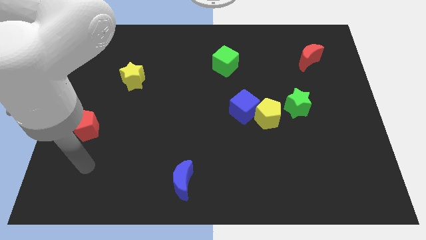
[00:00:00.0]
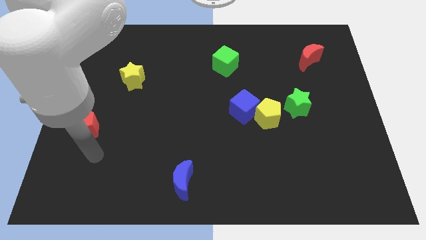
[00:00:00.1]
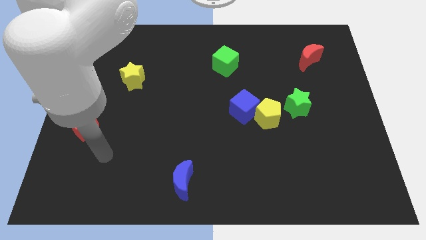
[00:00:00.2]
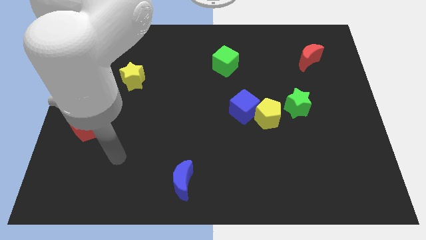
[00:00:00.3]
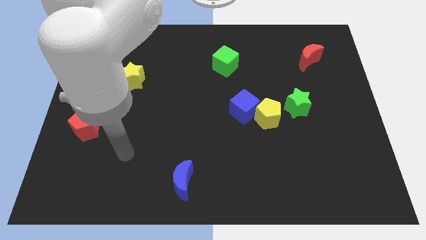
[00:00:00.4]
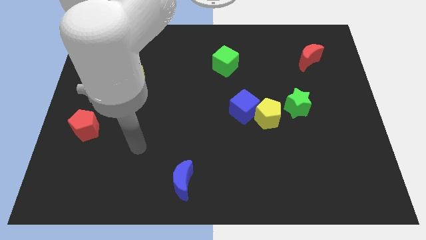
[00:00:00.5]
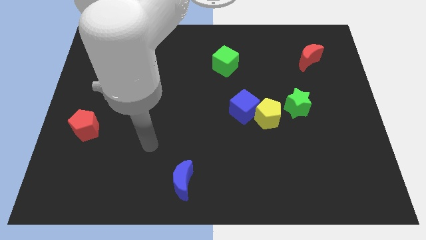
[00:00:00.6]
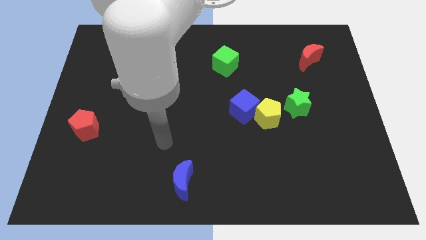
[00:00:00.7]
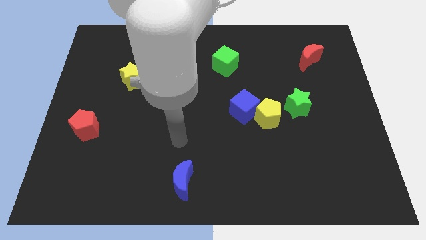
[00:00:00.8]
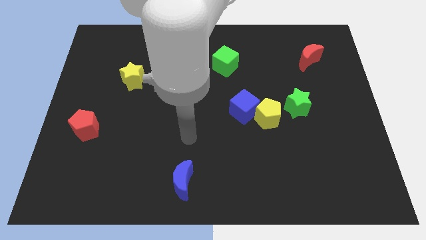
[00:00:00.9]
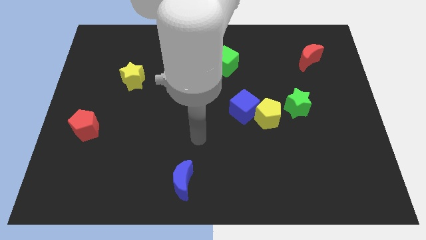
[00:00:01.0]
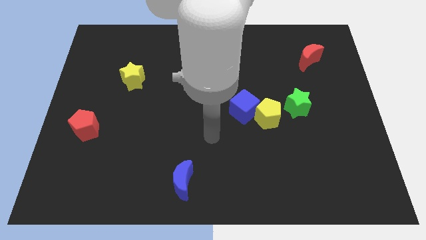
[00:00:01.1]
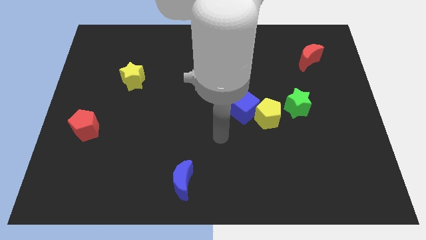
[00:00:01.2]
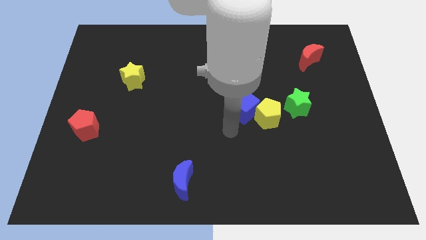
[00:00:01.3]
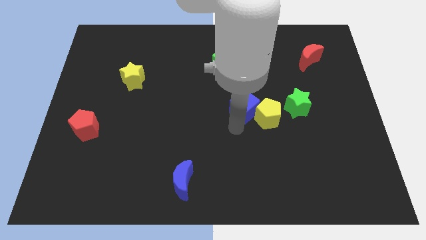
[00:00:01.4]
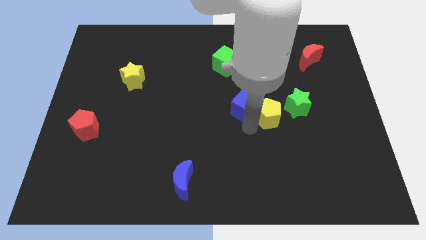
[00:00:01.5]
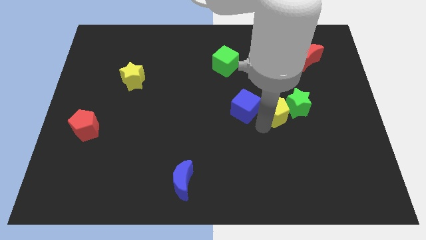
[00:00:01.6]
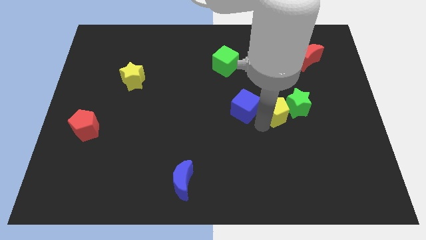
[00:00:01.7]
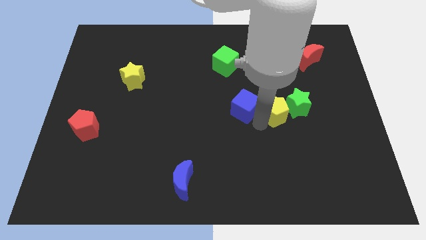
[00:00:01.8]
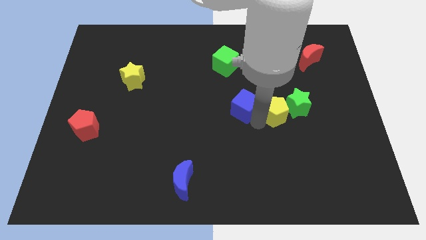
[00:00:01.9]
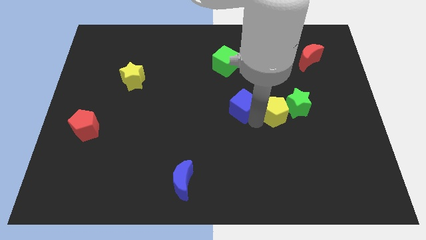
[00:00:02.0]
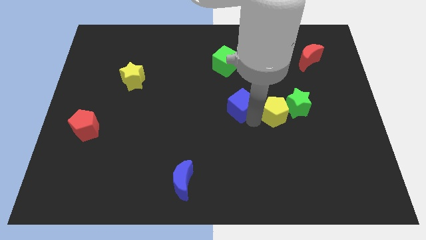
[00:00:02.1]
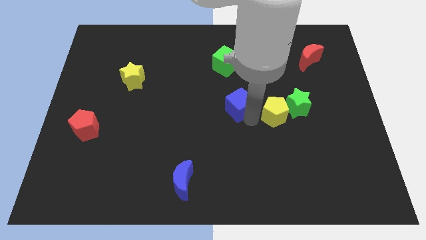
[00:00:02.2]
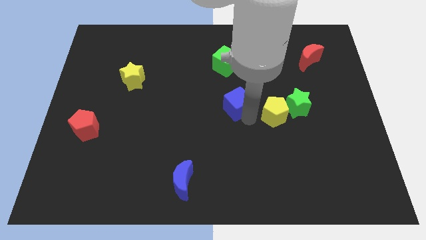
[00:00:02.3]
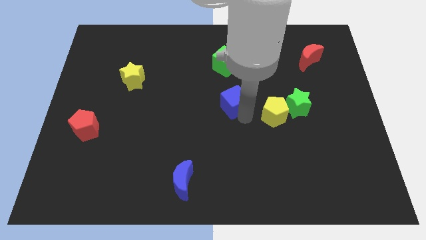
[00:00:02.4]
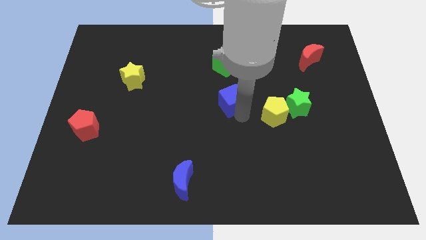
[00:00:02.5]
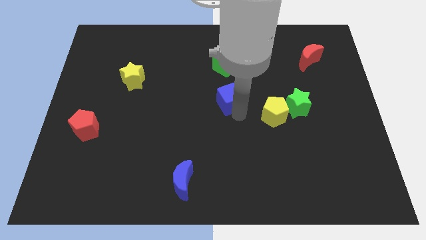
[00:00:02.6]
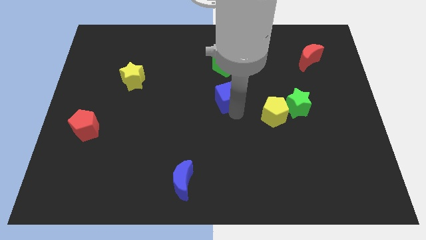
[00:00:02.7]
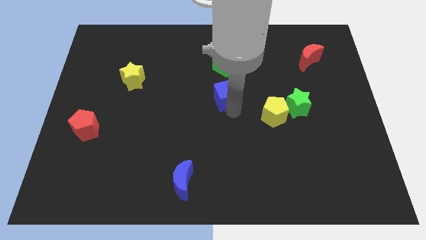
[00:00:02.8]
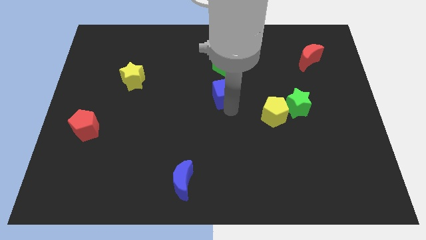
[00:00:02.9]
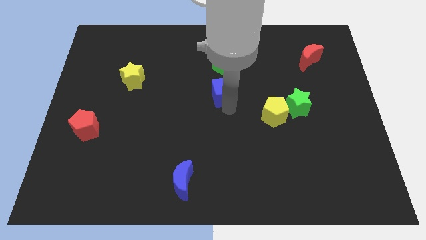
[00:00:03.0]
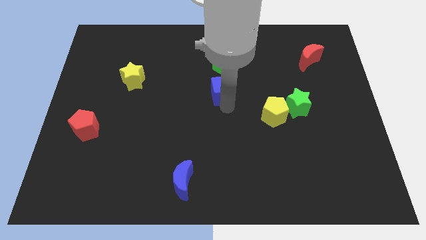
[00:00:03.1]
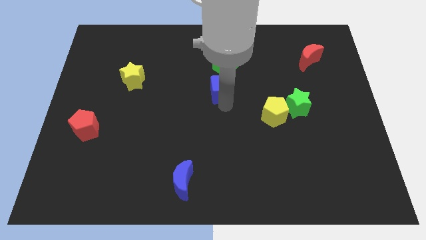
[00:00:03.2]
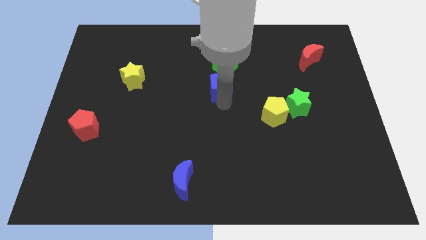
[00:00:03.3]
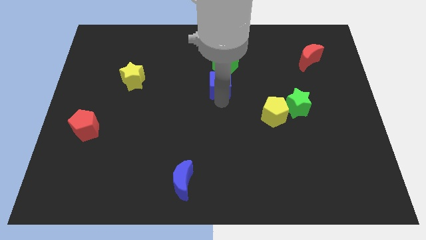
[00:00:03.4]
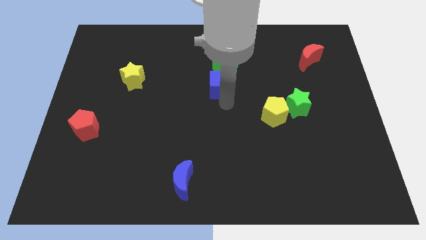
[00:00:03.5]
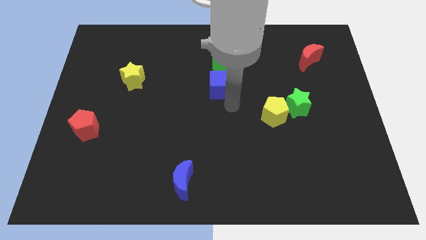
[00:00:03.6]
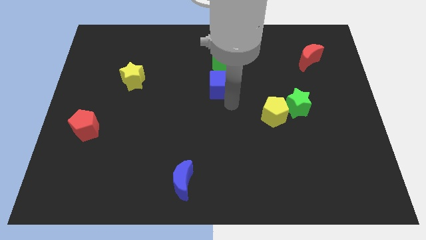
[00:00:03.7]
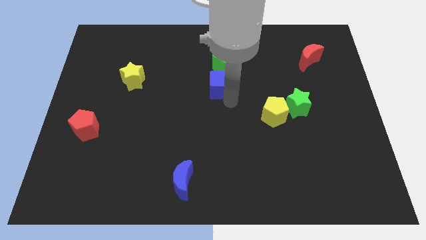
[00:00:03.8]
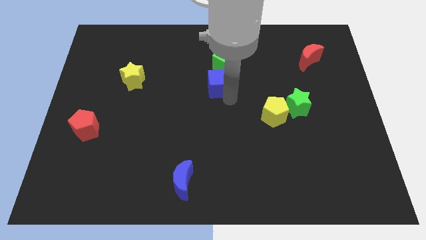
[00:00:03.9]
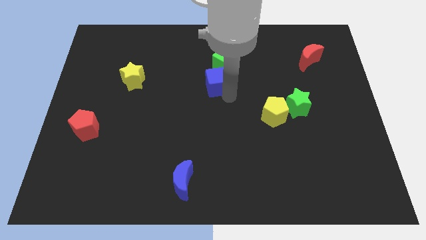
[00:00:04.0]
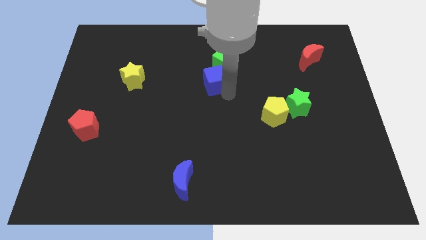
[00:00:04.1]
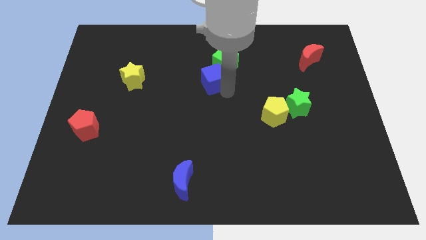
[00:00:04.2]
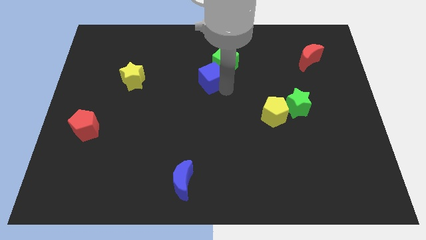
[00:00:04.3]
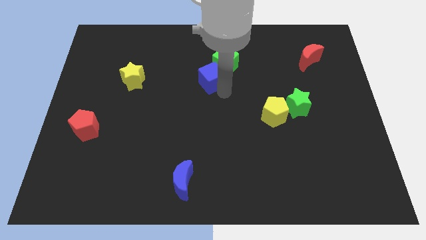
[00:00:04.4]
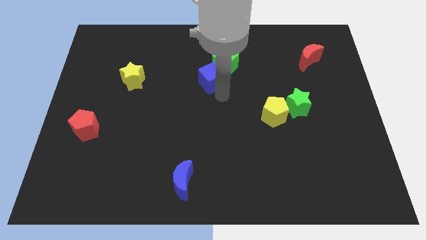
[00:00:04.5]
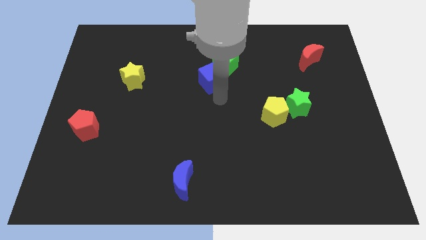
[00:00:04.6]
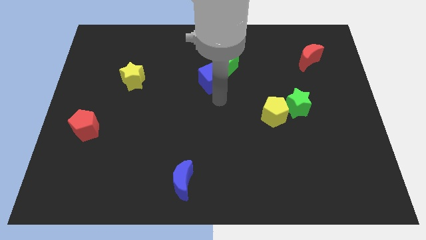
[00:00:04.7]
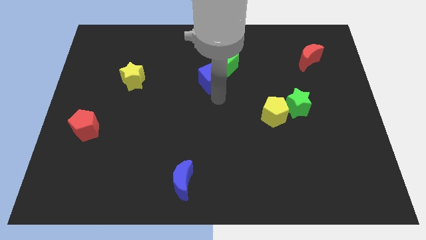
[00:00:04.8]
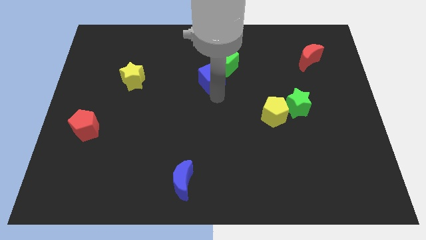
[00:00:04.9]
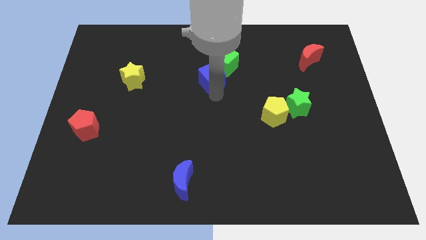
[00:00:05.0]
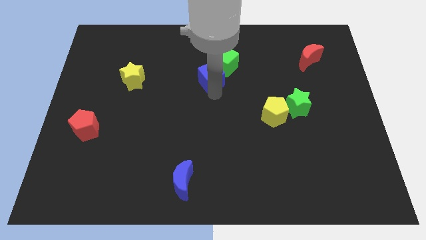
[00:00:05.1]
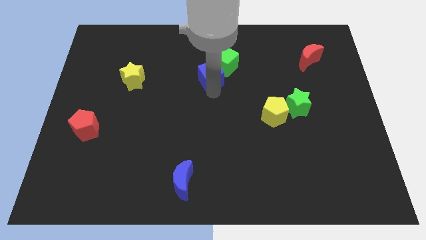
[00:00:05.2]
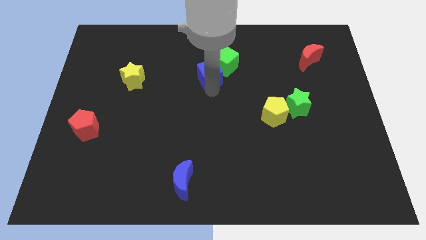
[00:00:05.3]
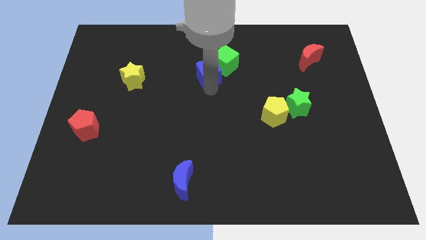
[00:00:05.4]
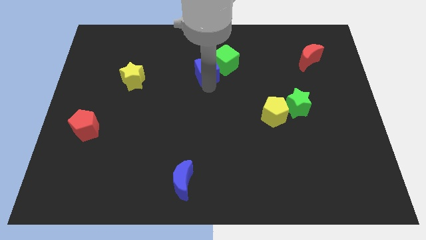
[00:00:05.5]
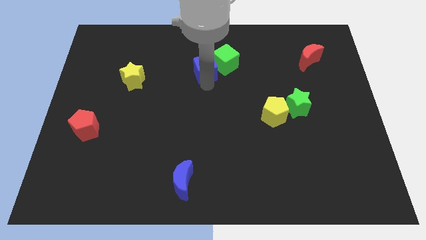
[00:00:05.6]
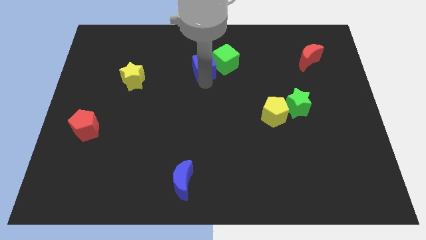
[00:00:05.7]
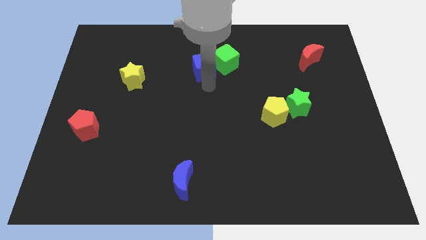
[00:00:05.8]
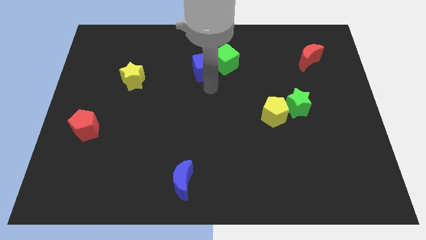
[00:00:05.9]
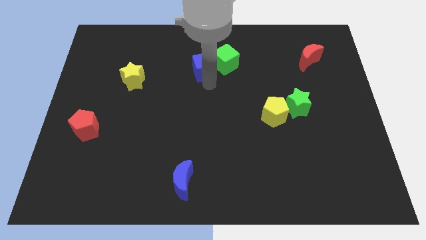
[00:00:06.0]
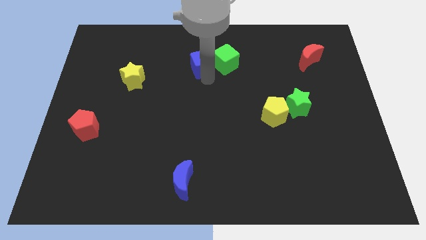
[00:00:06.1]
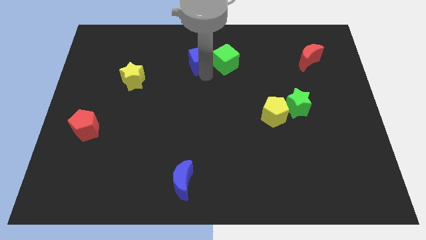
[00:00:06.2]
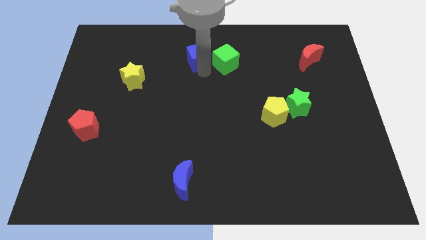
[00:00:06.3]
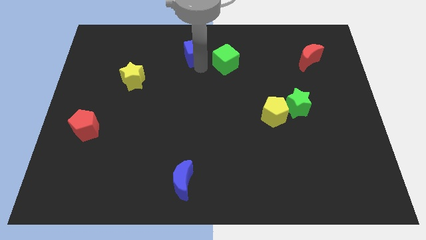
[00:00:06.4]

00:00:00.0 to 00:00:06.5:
move the blue cube to the towards your base
